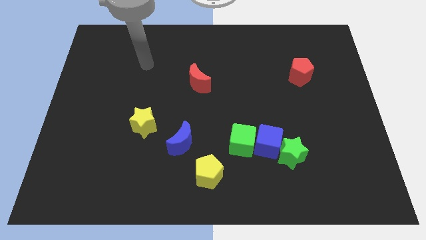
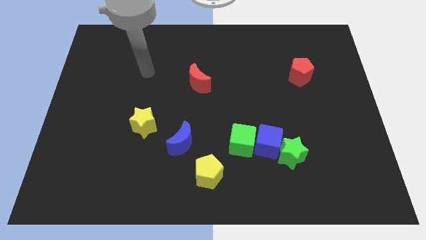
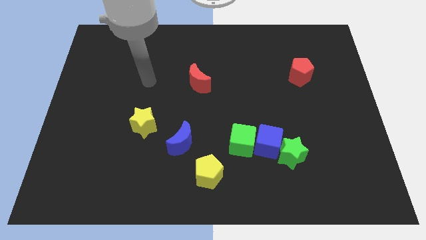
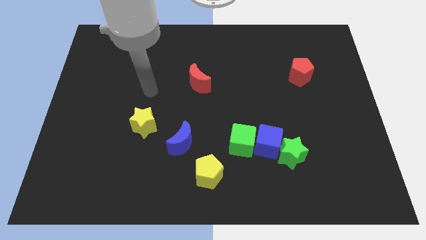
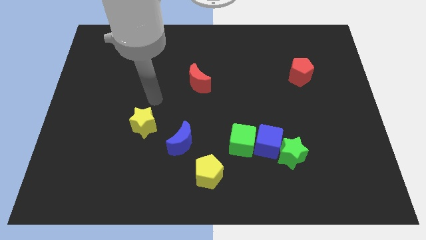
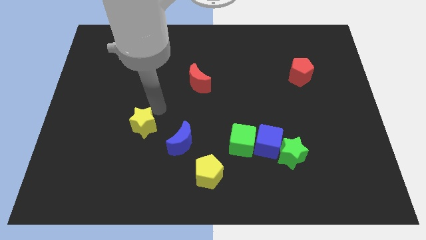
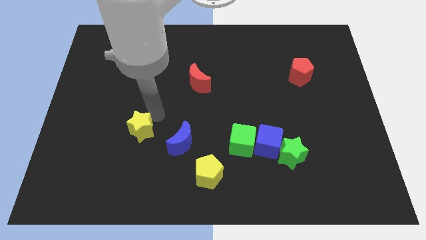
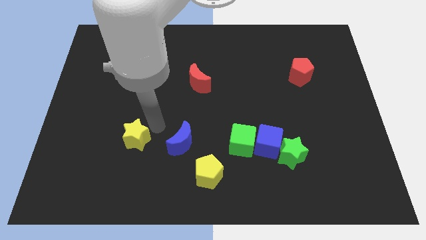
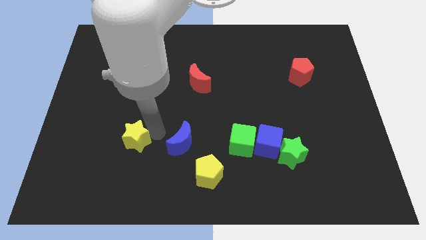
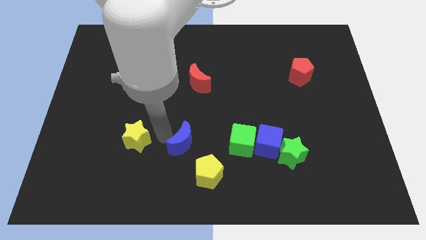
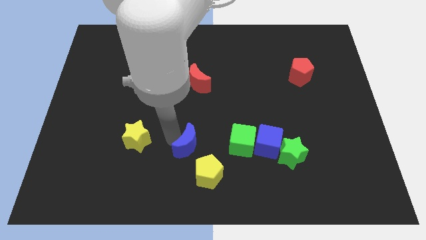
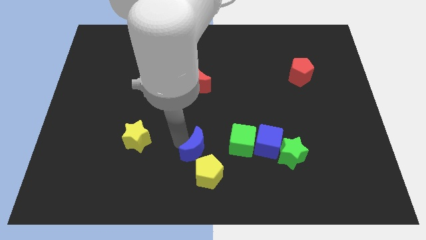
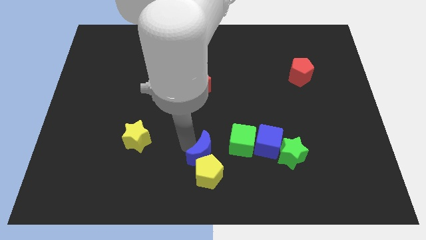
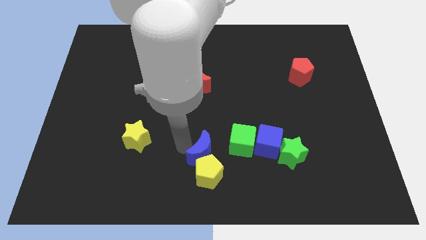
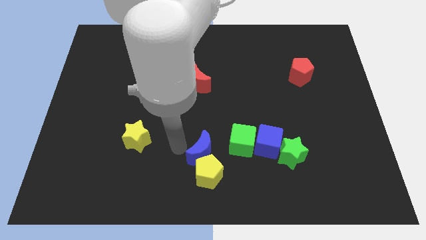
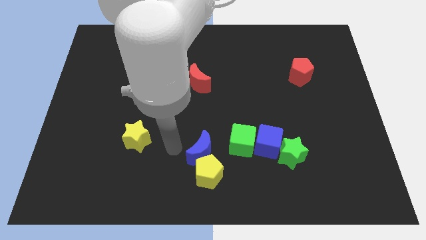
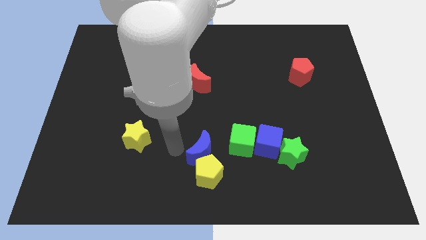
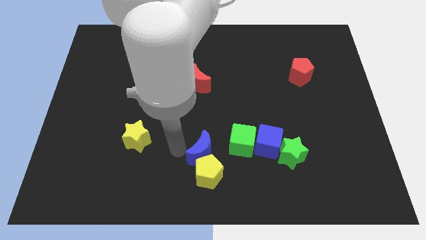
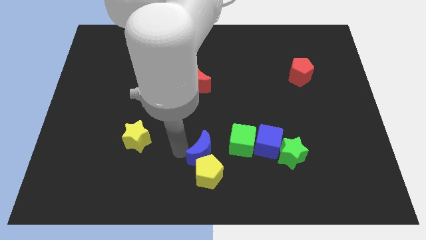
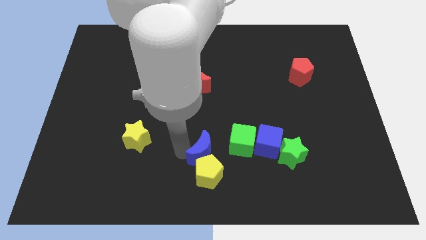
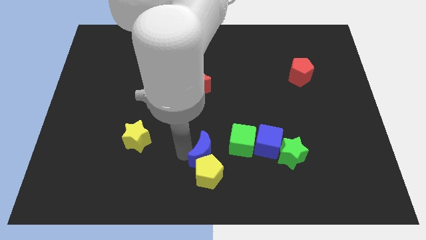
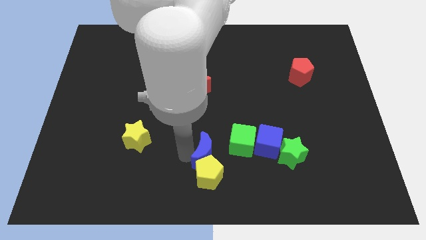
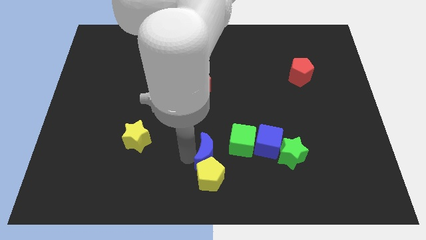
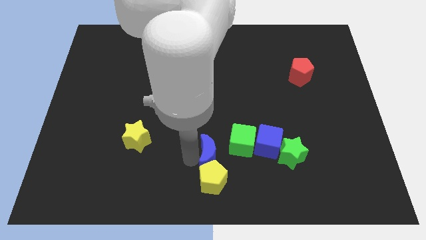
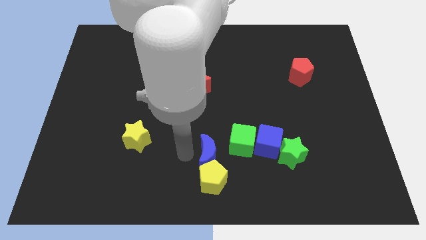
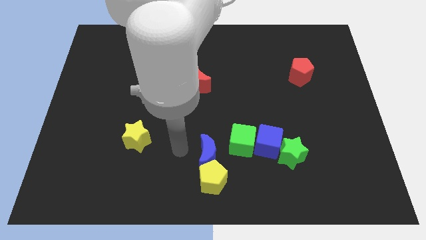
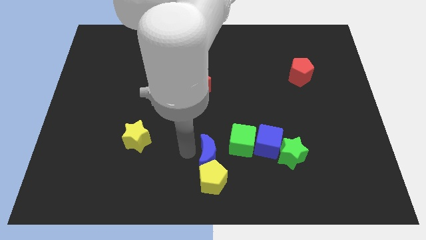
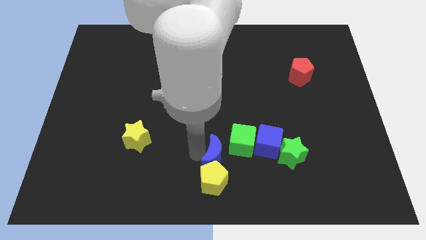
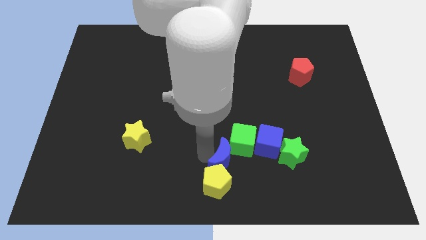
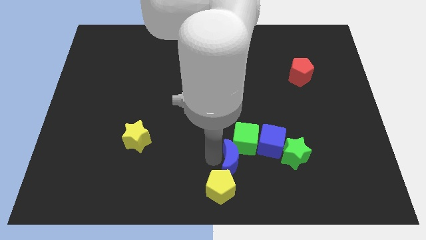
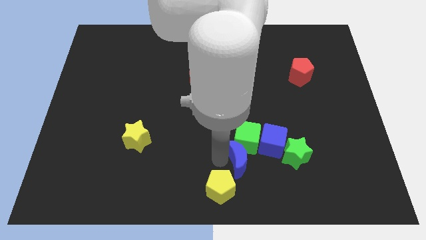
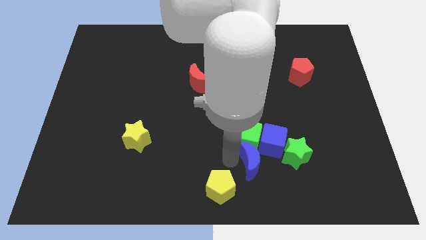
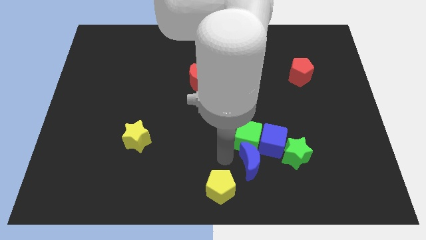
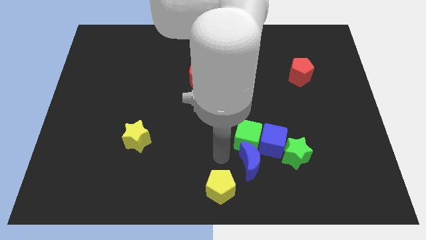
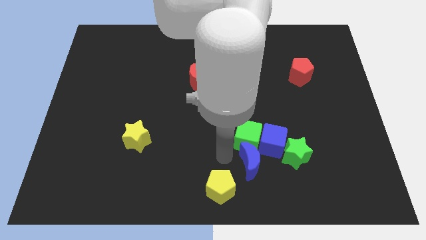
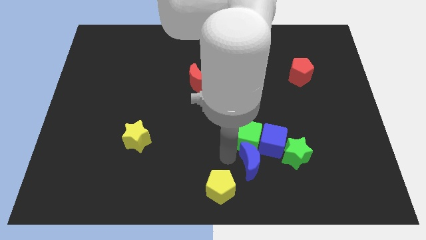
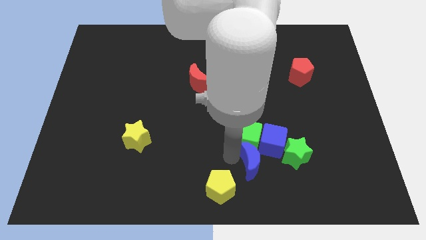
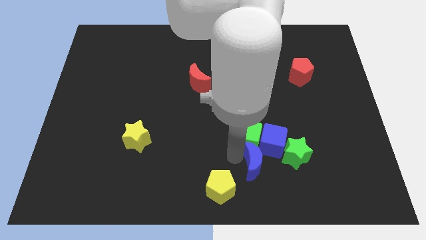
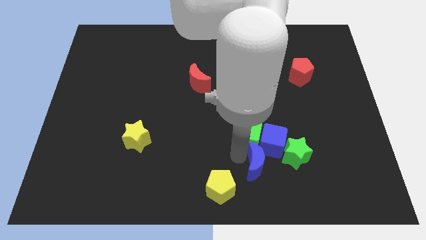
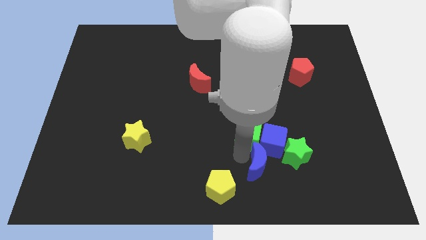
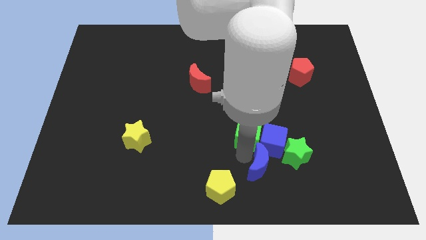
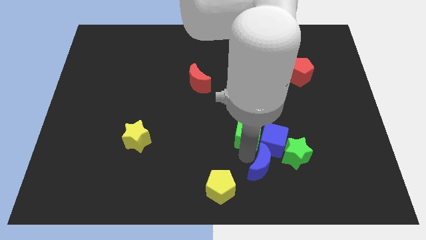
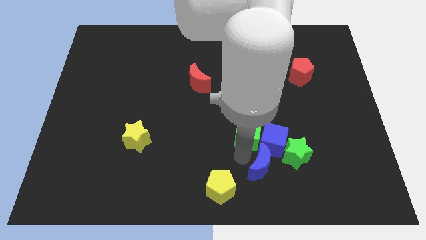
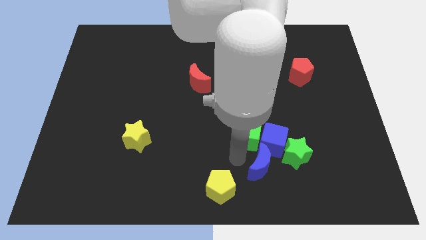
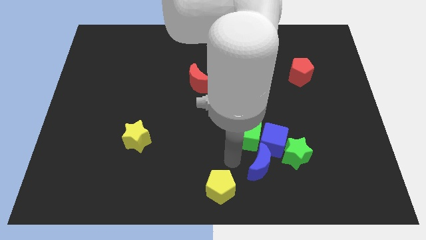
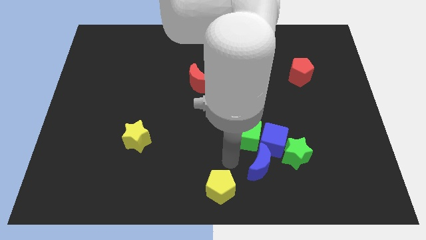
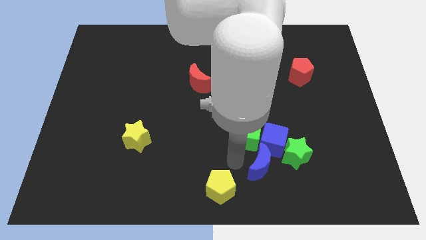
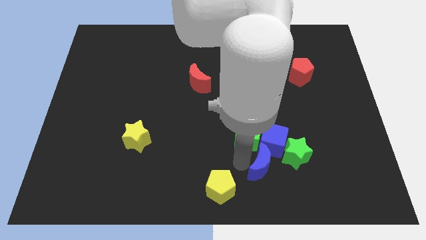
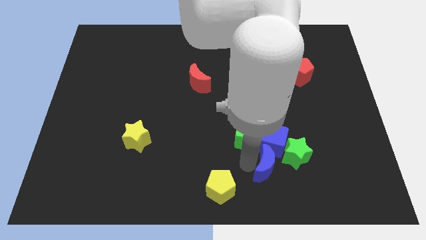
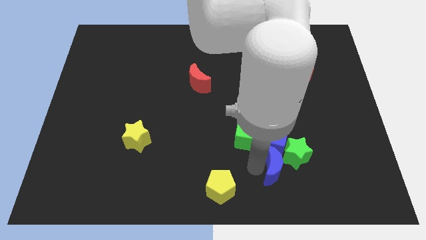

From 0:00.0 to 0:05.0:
move the blue moon next to the green star
